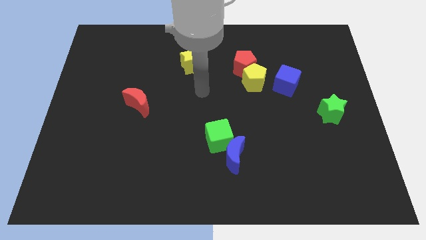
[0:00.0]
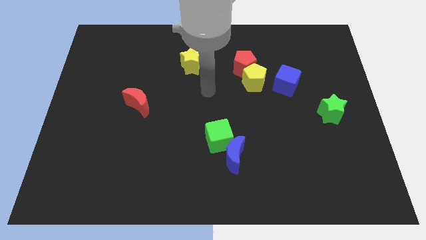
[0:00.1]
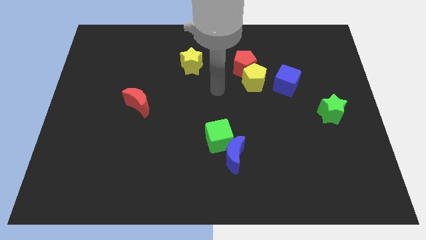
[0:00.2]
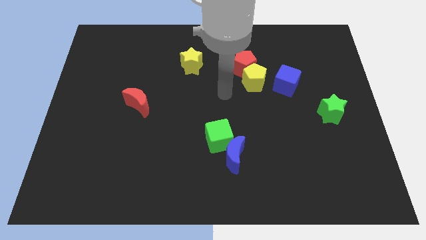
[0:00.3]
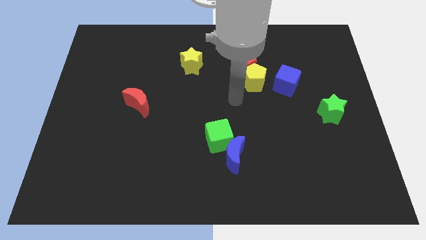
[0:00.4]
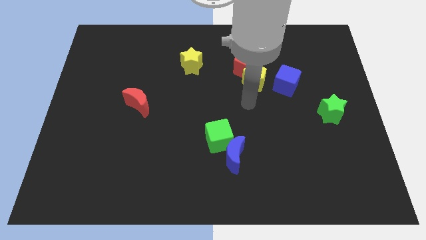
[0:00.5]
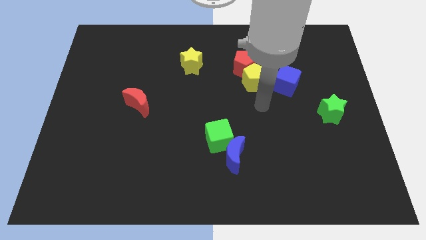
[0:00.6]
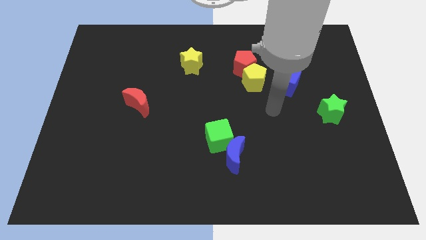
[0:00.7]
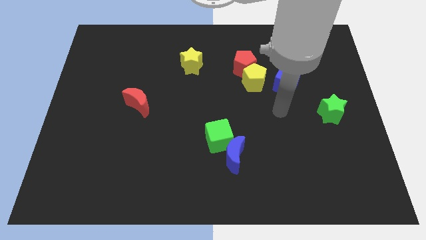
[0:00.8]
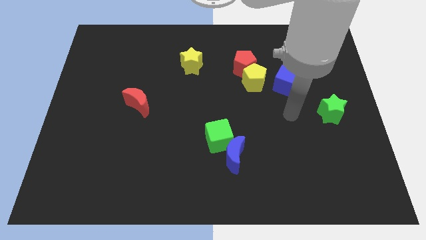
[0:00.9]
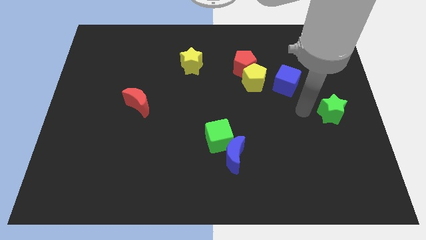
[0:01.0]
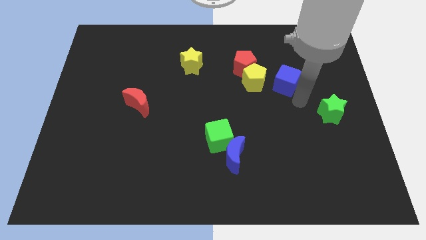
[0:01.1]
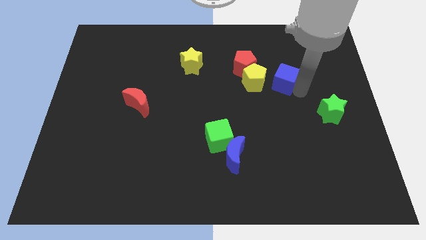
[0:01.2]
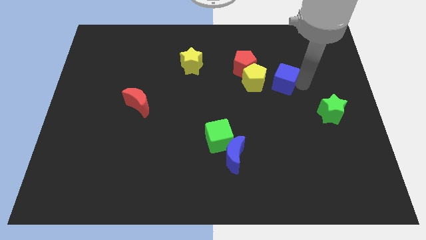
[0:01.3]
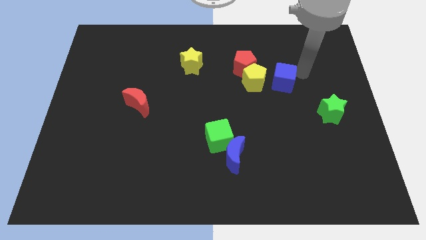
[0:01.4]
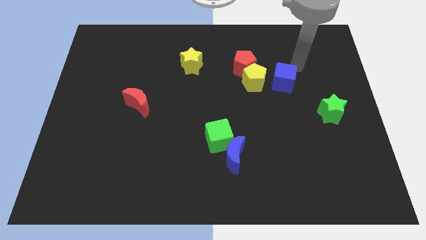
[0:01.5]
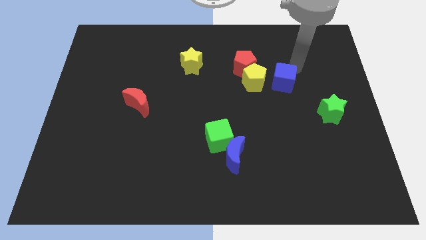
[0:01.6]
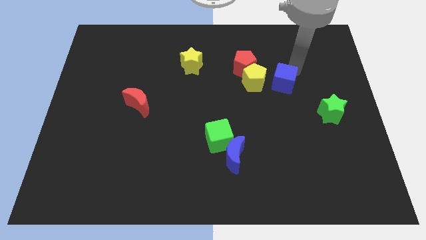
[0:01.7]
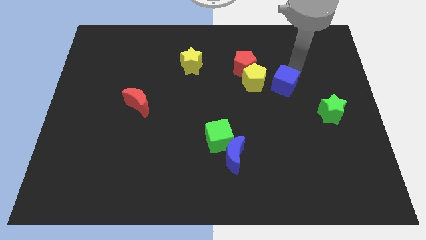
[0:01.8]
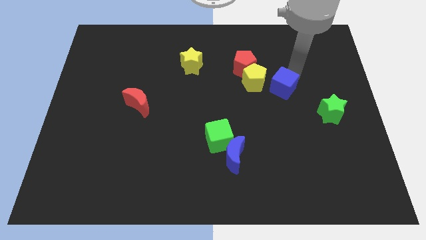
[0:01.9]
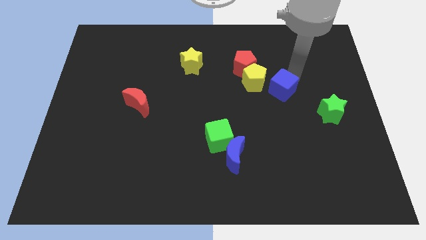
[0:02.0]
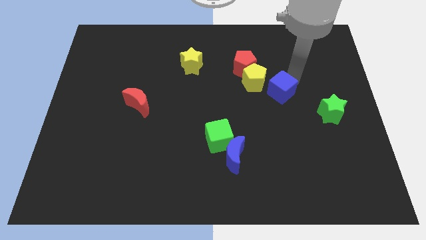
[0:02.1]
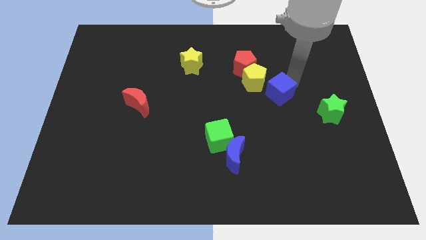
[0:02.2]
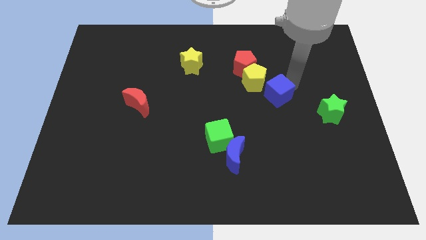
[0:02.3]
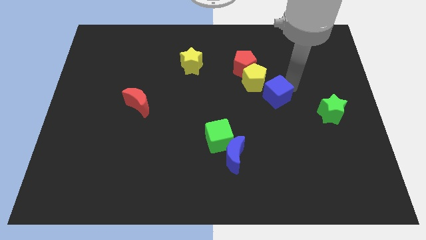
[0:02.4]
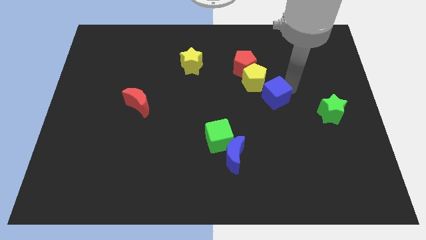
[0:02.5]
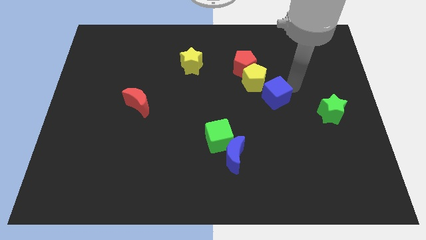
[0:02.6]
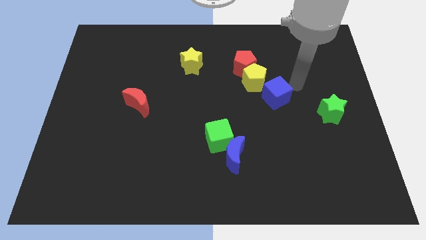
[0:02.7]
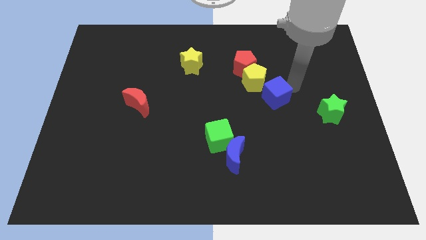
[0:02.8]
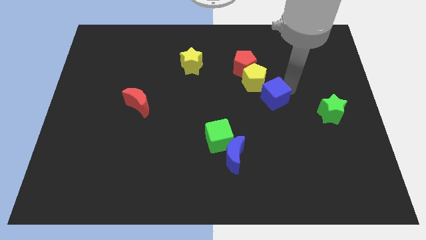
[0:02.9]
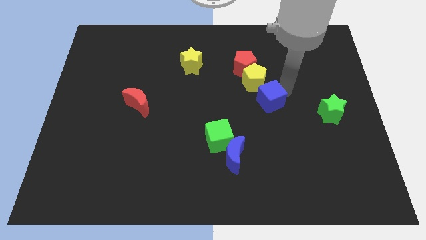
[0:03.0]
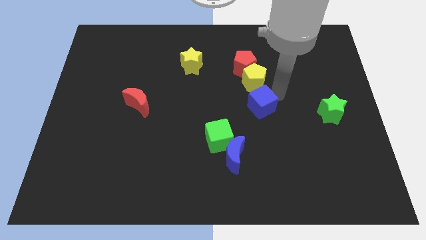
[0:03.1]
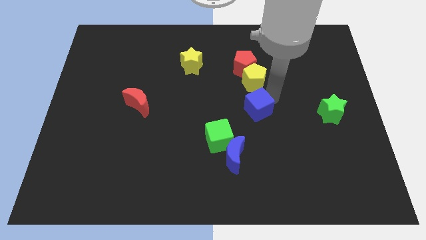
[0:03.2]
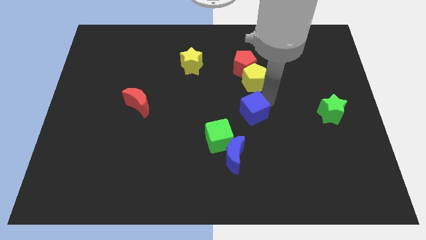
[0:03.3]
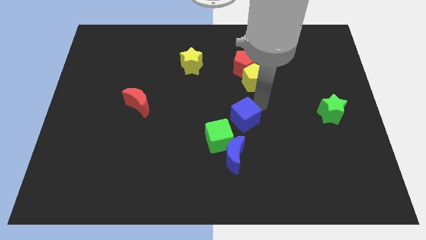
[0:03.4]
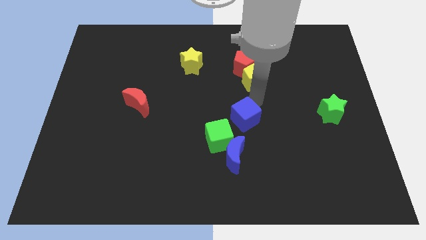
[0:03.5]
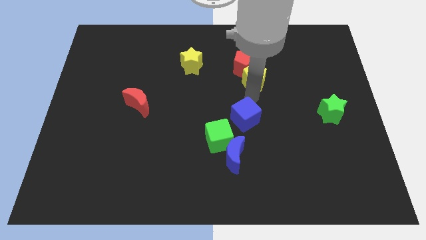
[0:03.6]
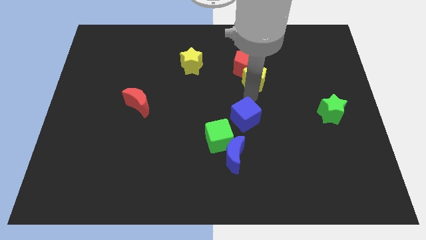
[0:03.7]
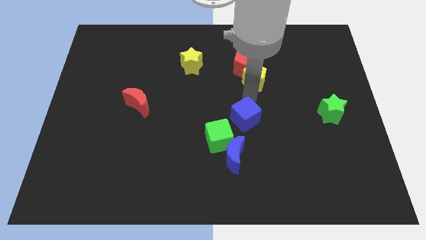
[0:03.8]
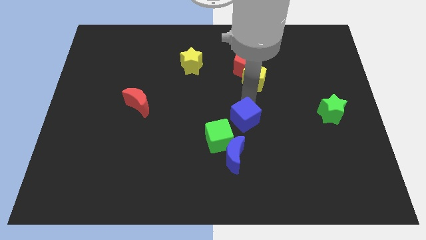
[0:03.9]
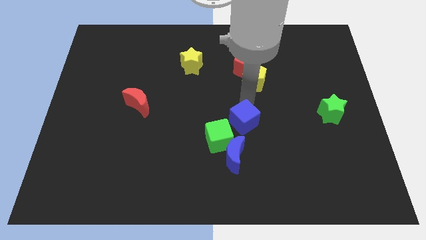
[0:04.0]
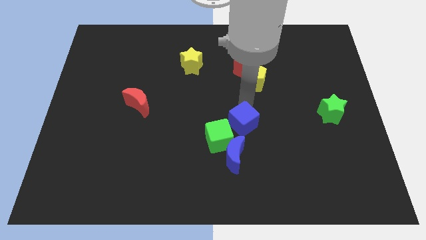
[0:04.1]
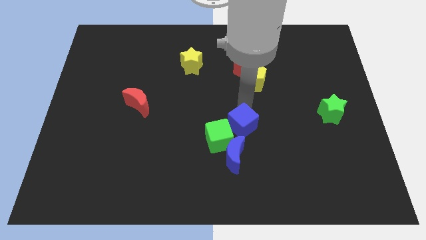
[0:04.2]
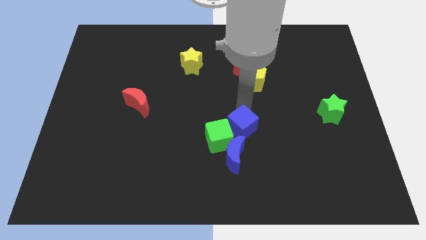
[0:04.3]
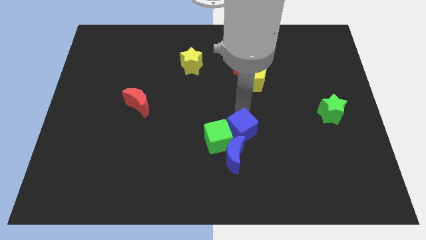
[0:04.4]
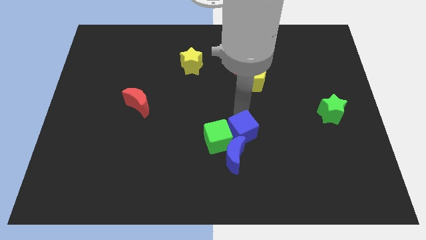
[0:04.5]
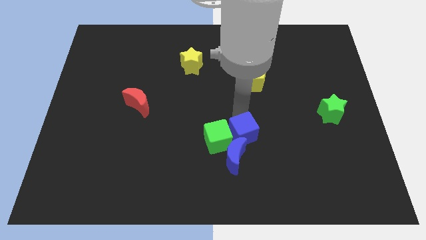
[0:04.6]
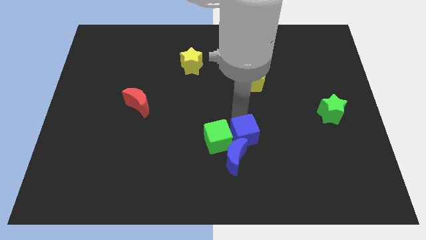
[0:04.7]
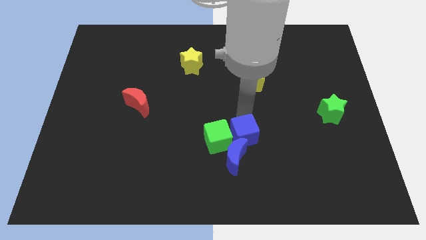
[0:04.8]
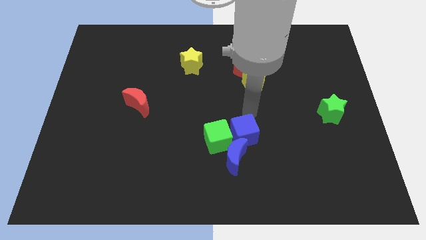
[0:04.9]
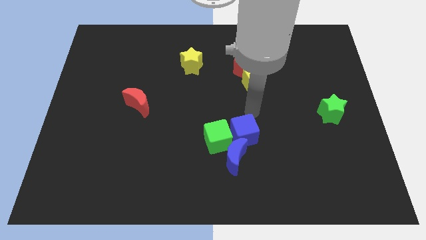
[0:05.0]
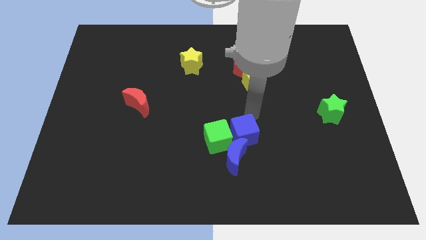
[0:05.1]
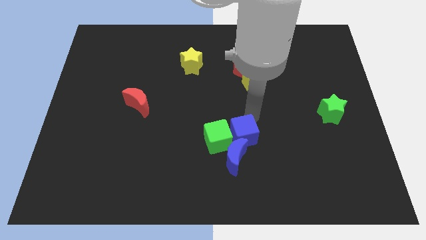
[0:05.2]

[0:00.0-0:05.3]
push the blue cube close to the blue moon

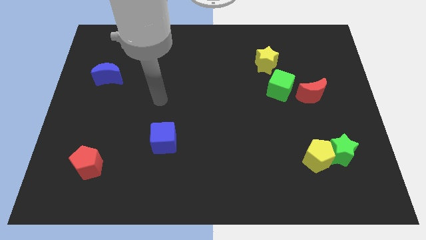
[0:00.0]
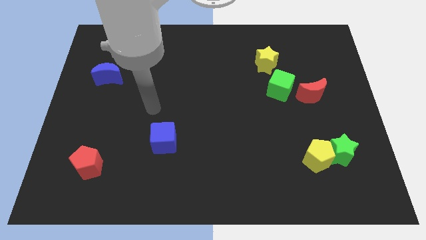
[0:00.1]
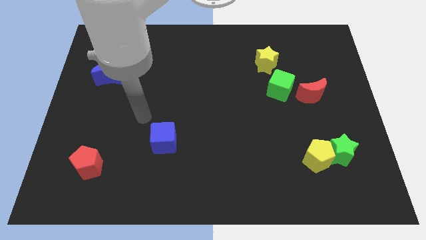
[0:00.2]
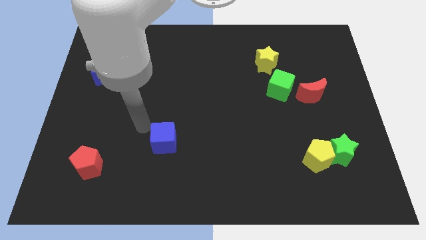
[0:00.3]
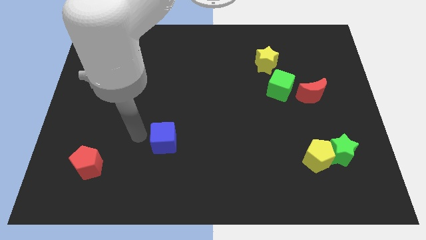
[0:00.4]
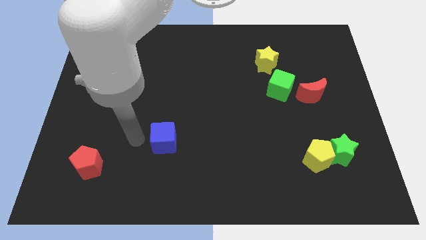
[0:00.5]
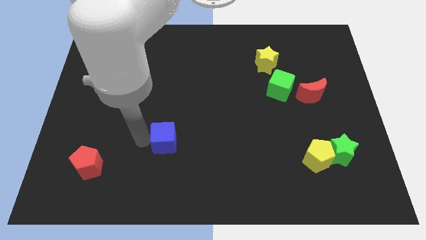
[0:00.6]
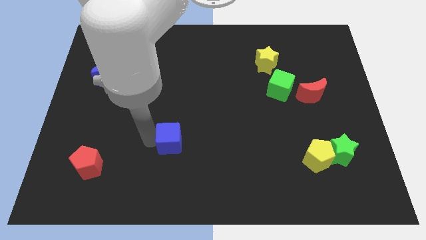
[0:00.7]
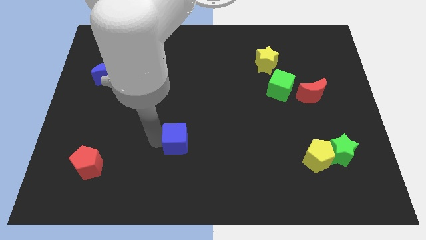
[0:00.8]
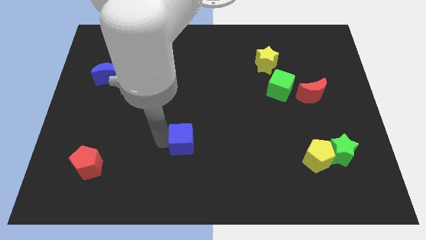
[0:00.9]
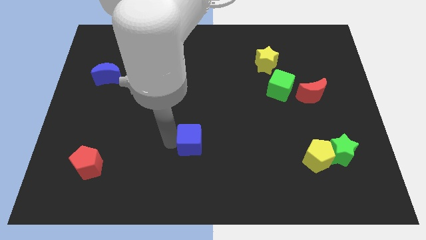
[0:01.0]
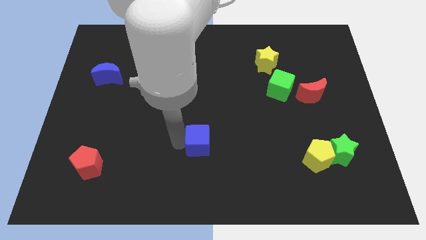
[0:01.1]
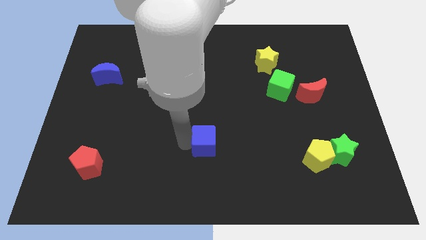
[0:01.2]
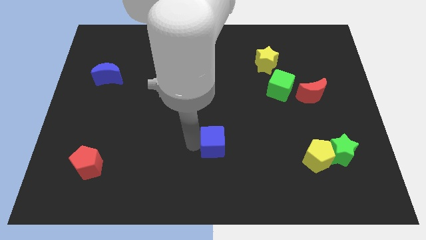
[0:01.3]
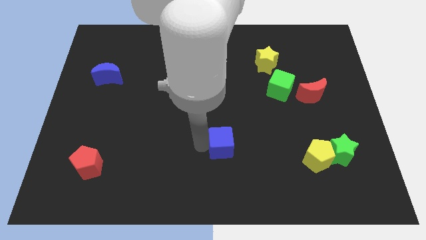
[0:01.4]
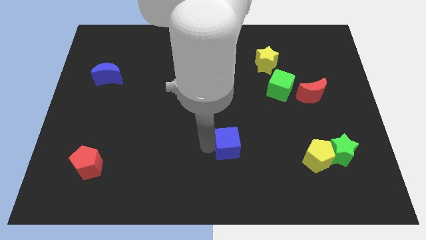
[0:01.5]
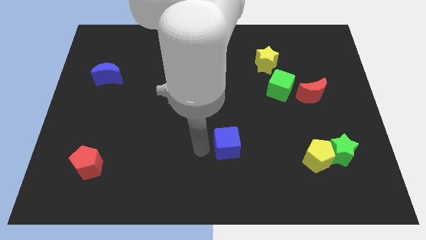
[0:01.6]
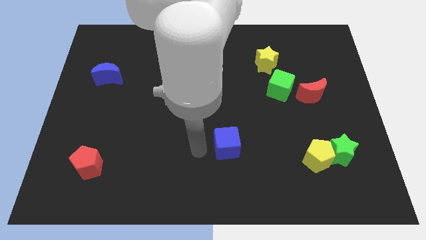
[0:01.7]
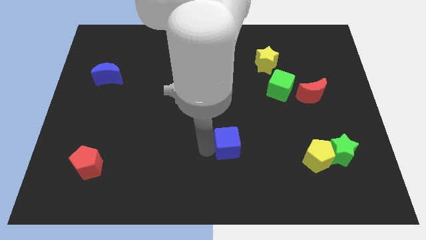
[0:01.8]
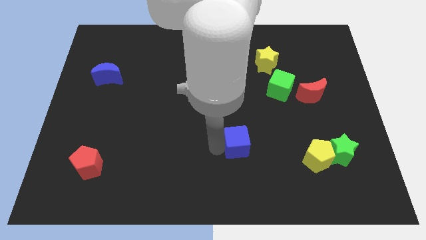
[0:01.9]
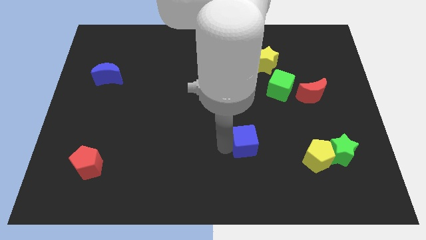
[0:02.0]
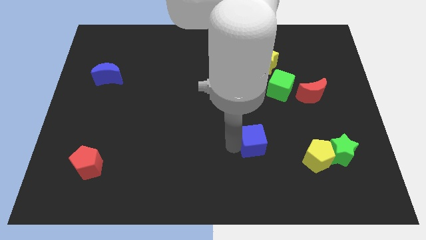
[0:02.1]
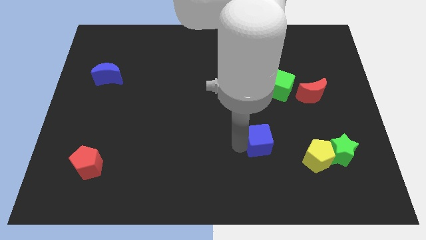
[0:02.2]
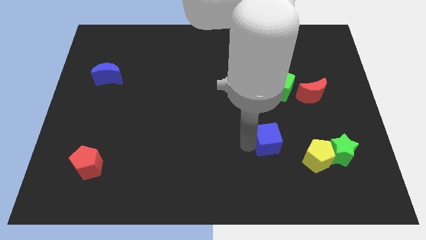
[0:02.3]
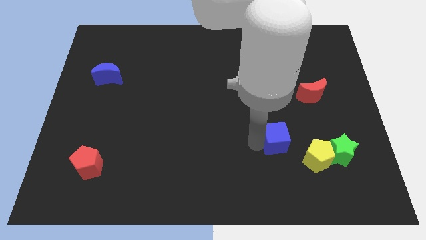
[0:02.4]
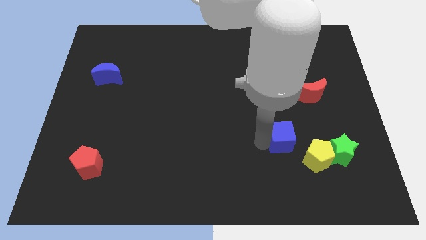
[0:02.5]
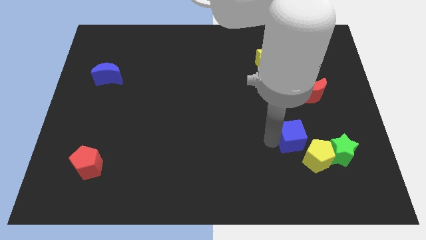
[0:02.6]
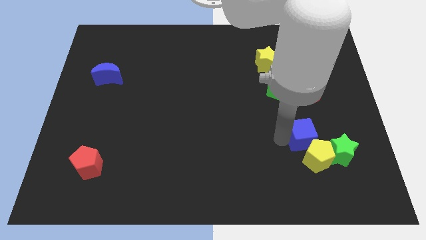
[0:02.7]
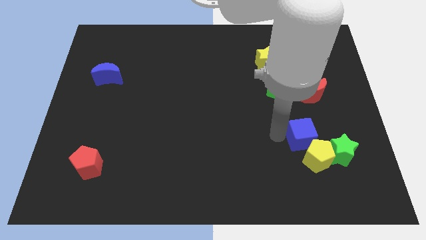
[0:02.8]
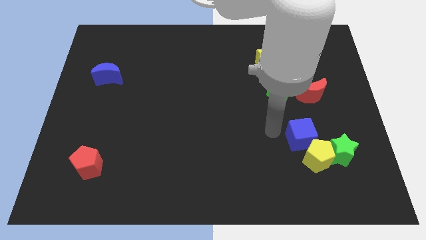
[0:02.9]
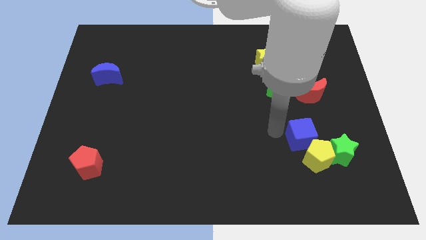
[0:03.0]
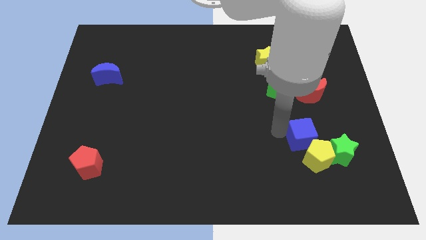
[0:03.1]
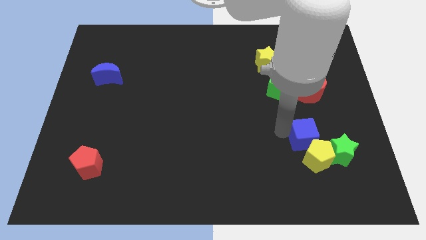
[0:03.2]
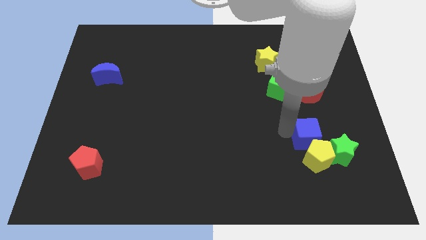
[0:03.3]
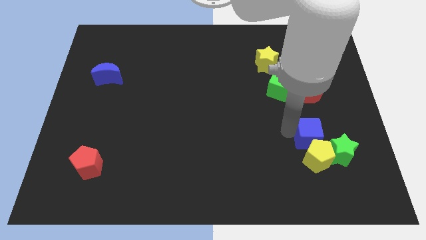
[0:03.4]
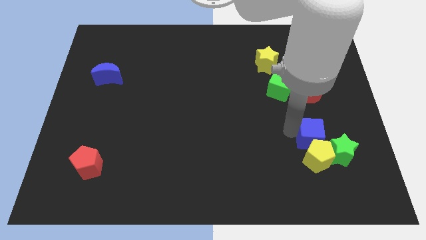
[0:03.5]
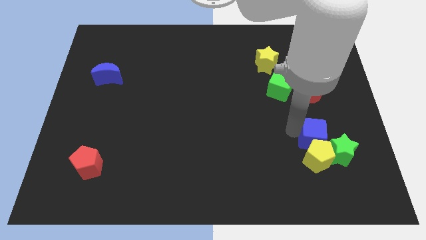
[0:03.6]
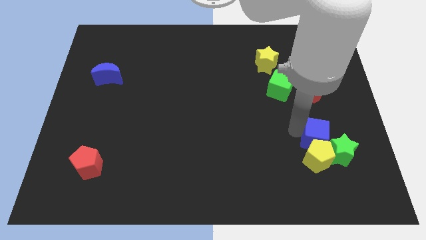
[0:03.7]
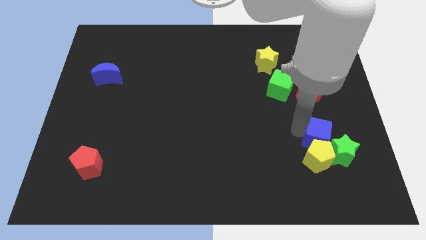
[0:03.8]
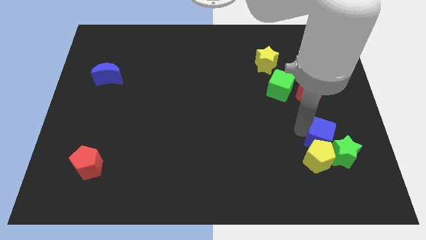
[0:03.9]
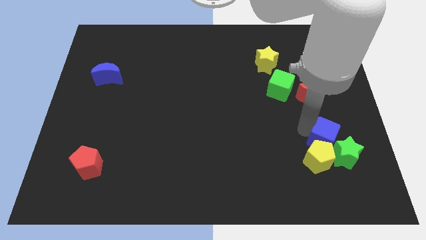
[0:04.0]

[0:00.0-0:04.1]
move the blue cube close to the green star
